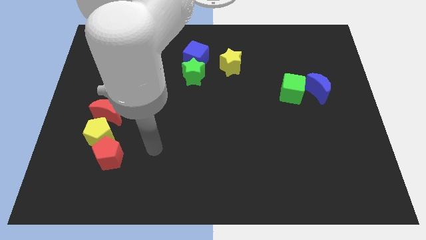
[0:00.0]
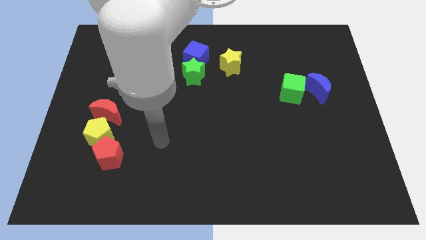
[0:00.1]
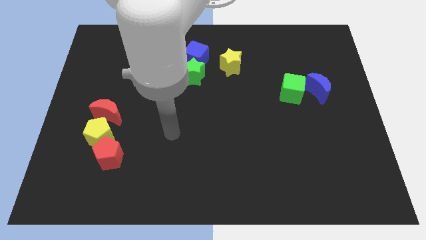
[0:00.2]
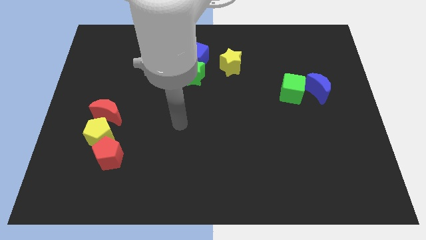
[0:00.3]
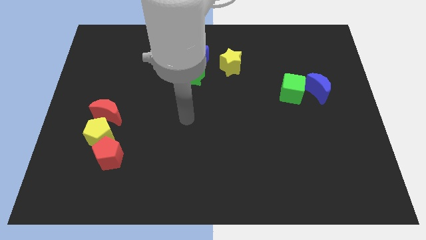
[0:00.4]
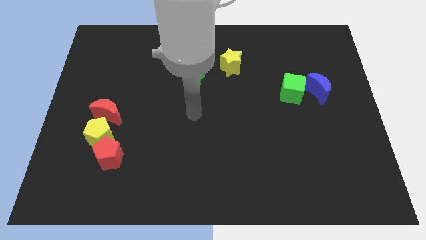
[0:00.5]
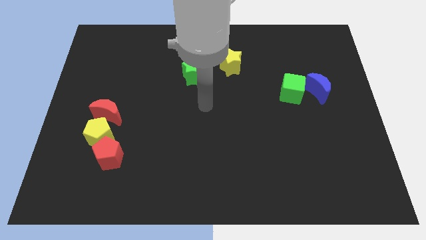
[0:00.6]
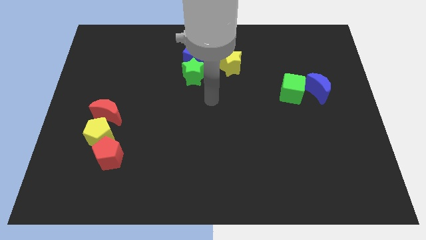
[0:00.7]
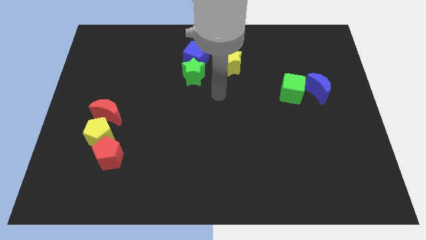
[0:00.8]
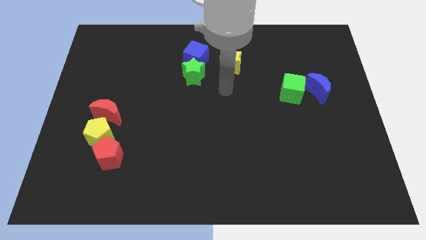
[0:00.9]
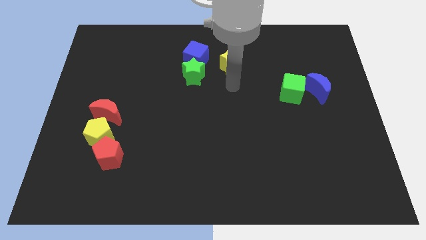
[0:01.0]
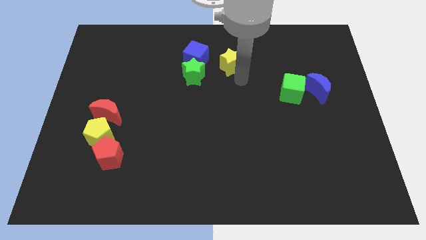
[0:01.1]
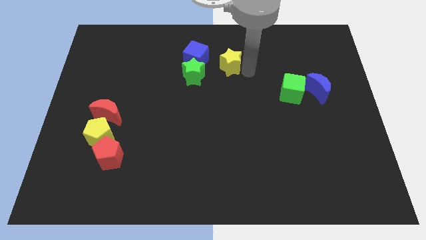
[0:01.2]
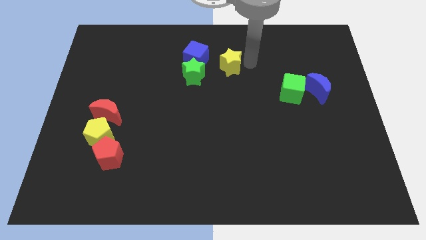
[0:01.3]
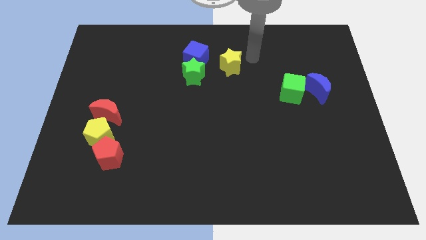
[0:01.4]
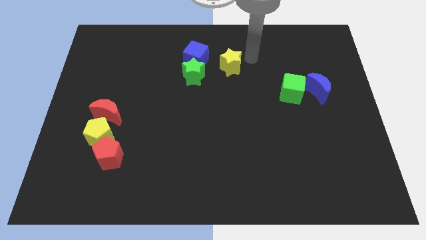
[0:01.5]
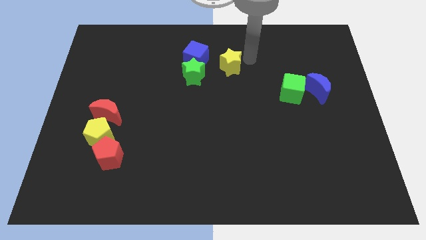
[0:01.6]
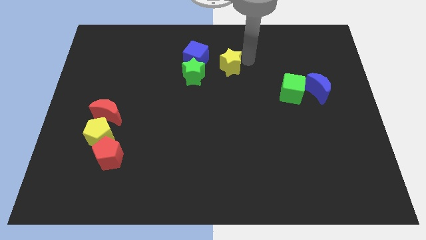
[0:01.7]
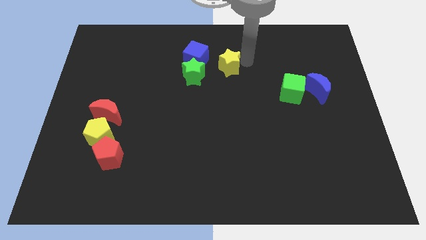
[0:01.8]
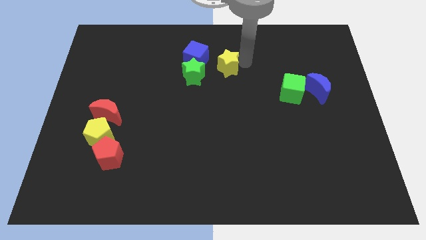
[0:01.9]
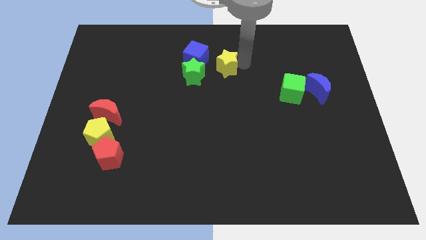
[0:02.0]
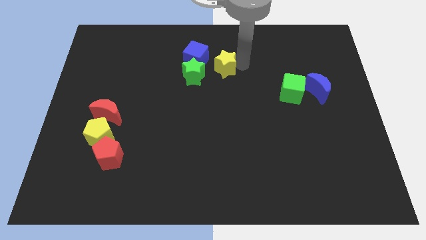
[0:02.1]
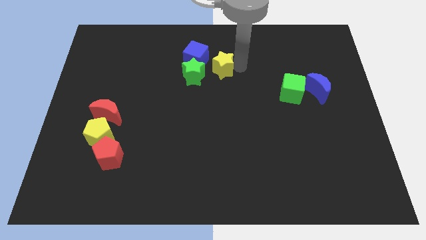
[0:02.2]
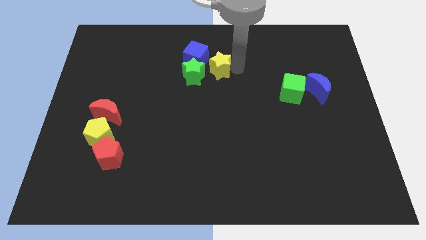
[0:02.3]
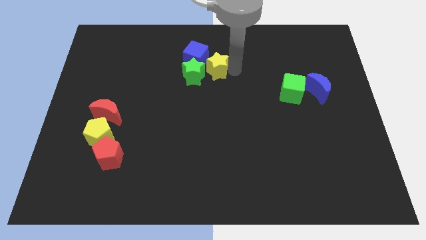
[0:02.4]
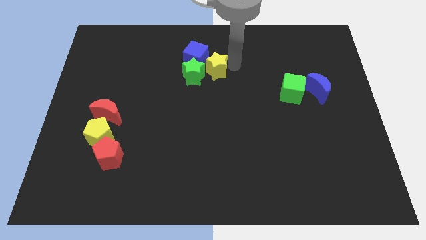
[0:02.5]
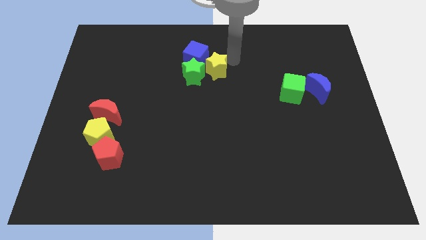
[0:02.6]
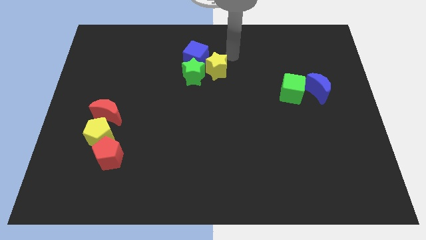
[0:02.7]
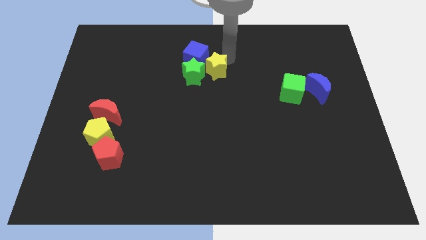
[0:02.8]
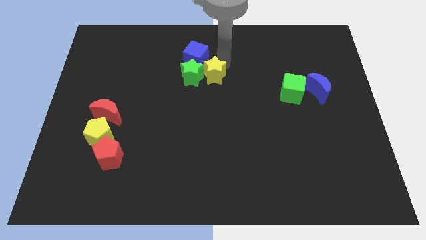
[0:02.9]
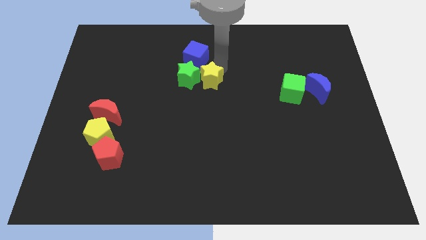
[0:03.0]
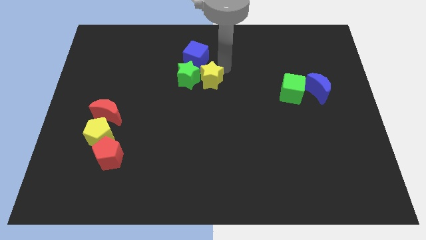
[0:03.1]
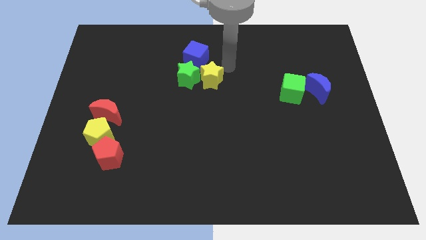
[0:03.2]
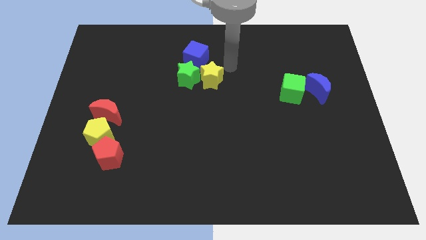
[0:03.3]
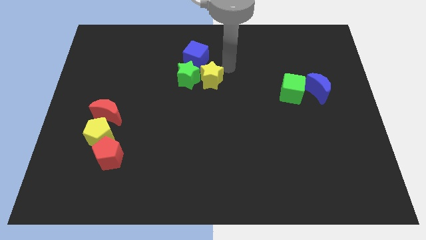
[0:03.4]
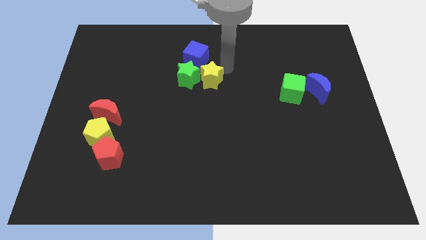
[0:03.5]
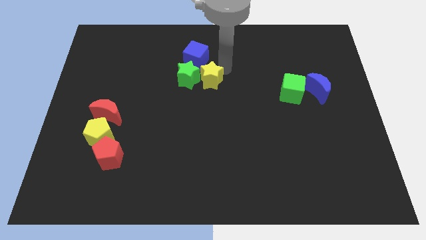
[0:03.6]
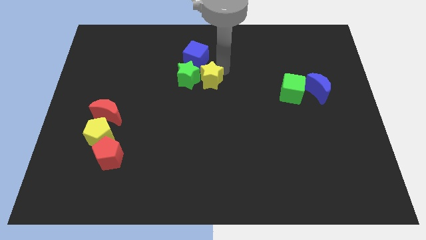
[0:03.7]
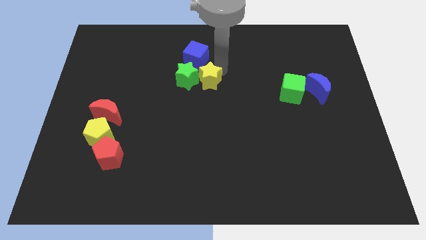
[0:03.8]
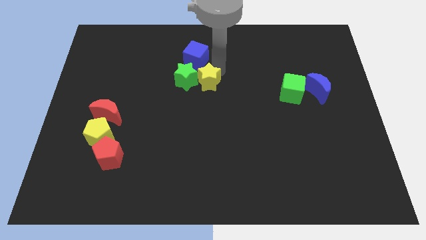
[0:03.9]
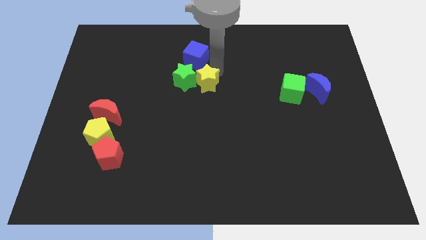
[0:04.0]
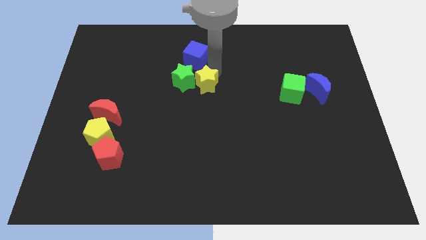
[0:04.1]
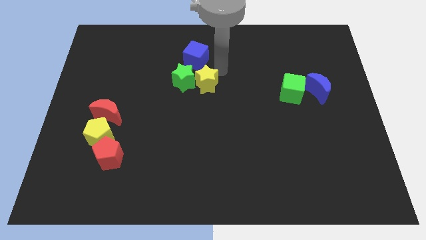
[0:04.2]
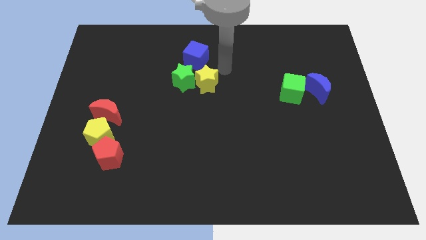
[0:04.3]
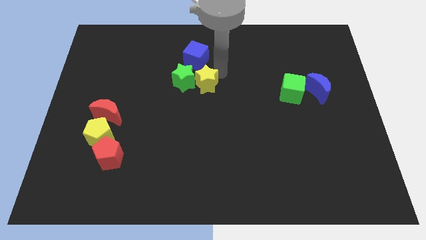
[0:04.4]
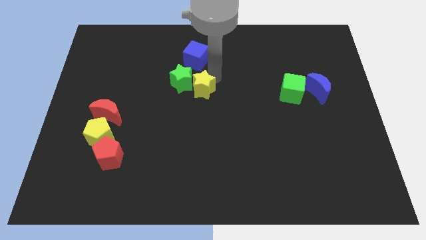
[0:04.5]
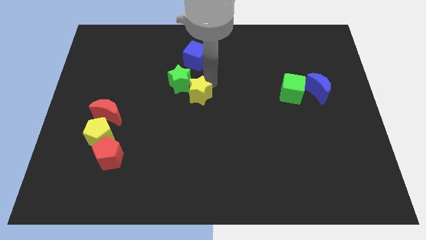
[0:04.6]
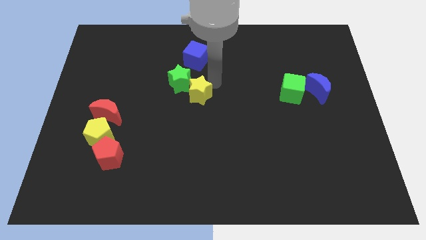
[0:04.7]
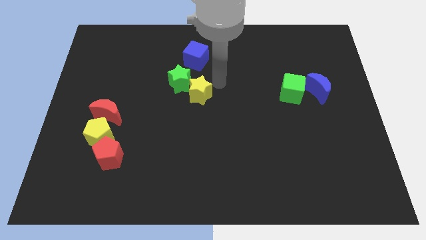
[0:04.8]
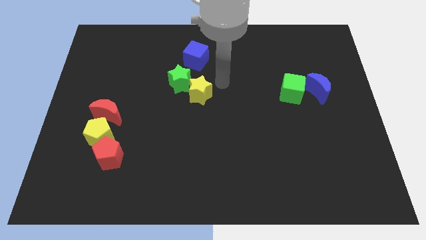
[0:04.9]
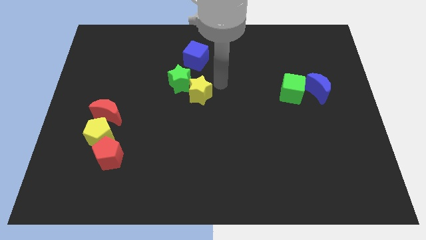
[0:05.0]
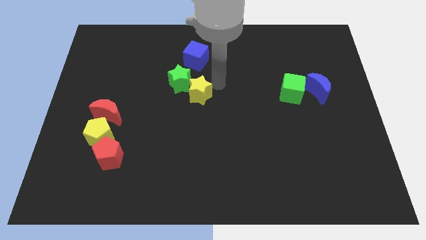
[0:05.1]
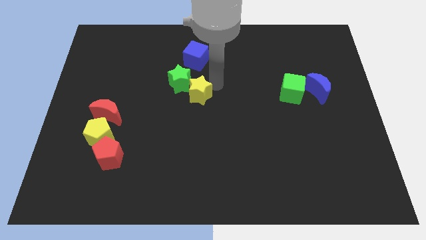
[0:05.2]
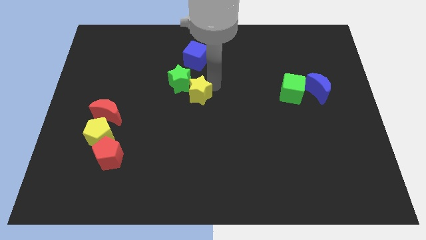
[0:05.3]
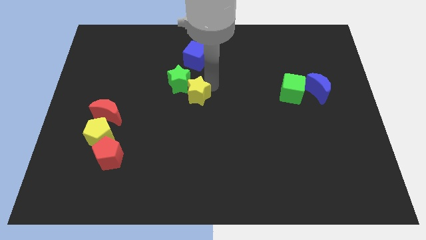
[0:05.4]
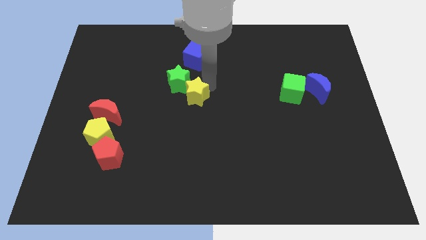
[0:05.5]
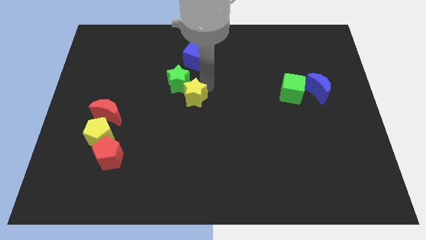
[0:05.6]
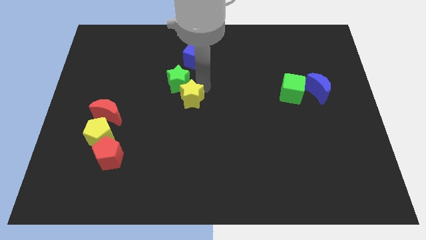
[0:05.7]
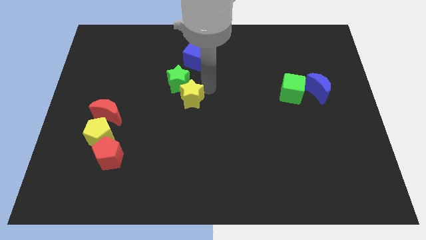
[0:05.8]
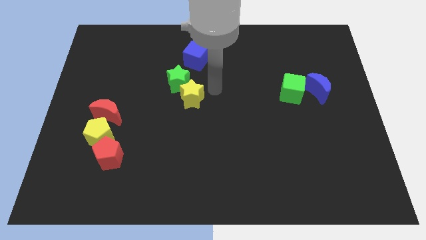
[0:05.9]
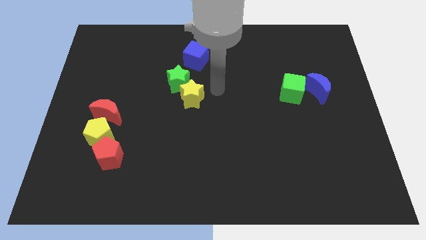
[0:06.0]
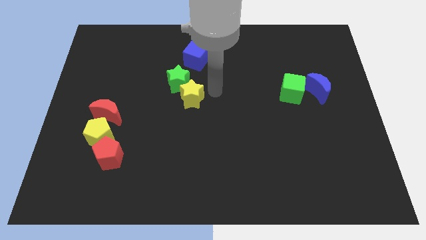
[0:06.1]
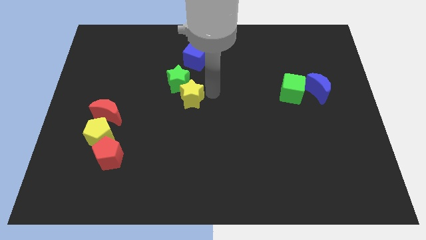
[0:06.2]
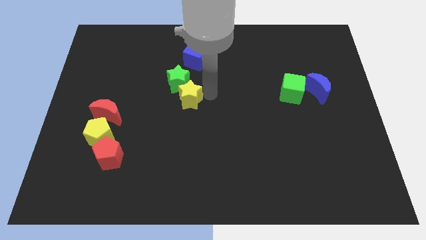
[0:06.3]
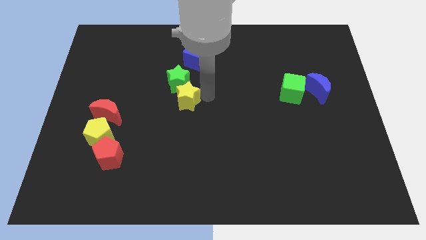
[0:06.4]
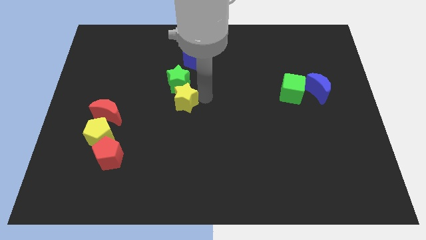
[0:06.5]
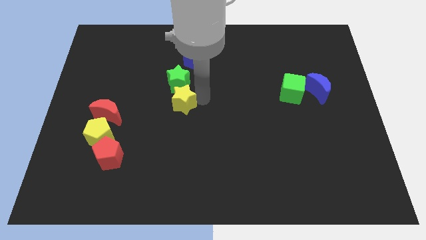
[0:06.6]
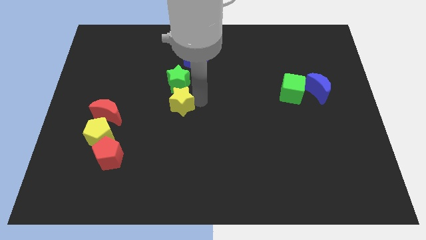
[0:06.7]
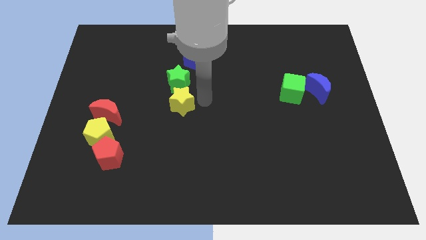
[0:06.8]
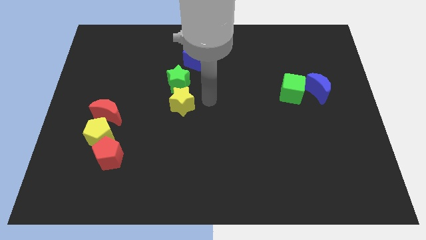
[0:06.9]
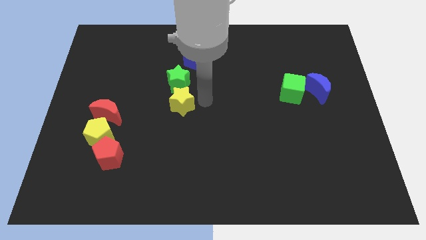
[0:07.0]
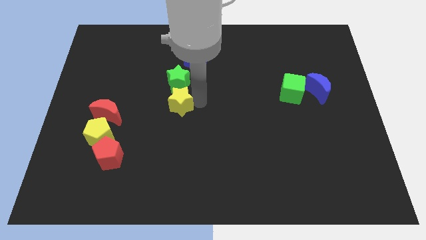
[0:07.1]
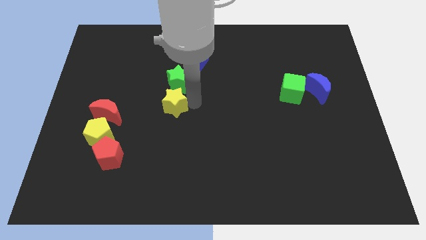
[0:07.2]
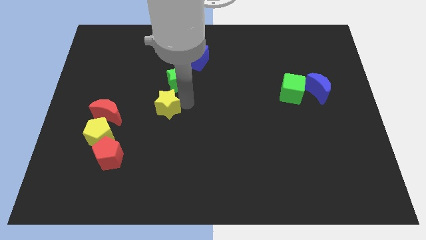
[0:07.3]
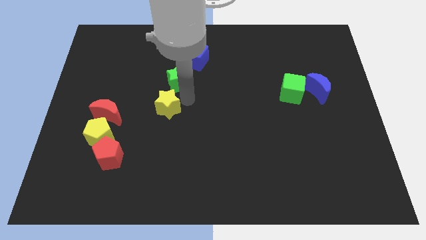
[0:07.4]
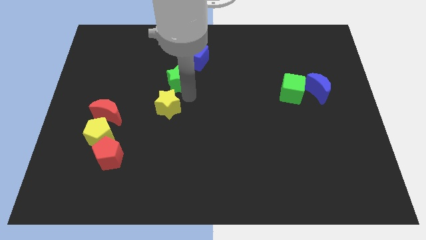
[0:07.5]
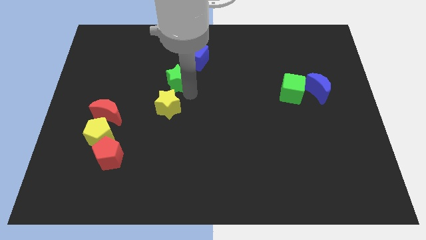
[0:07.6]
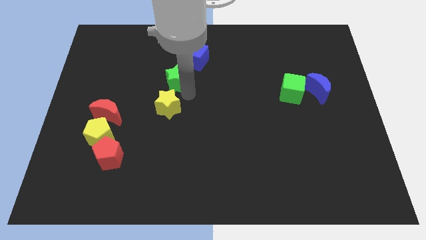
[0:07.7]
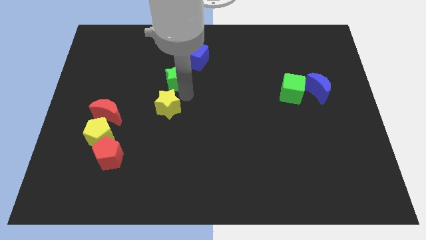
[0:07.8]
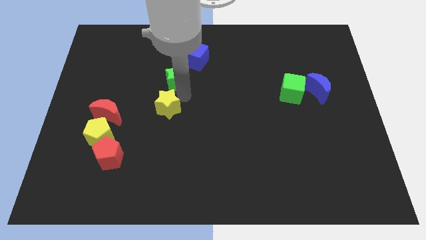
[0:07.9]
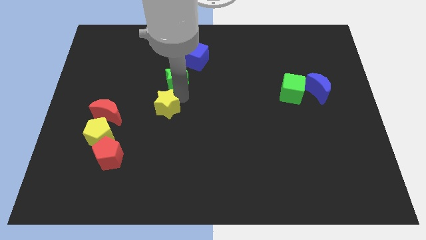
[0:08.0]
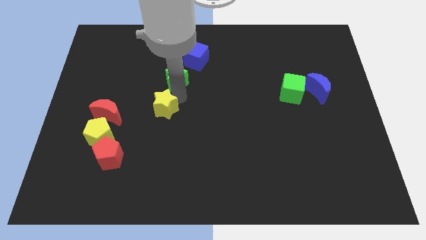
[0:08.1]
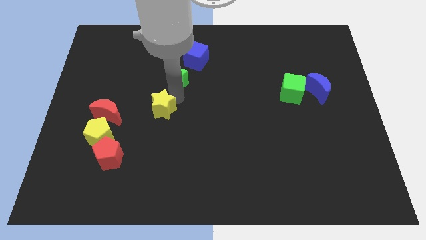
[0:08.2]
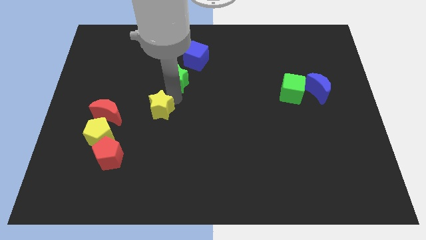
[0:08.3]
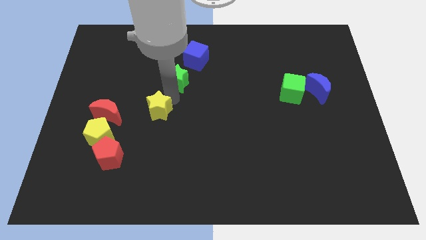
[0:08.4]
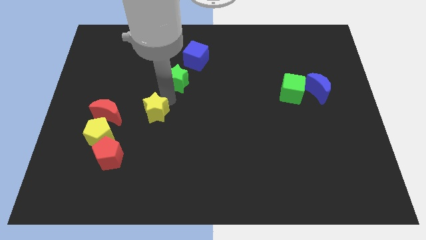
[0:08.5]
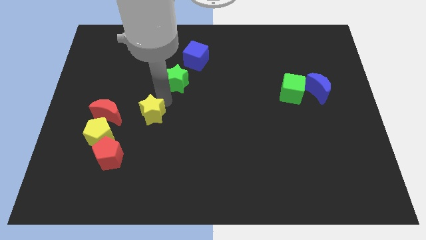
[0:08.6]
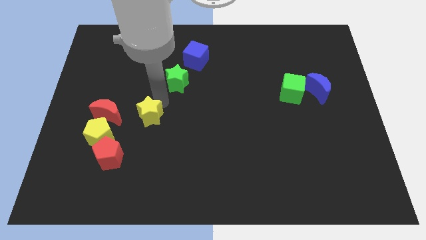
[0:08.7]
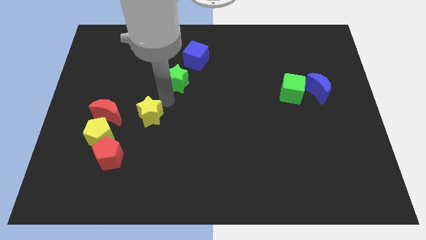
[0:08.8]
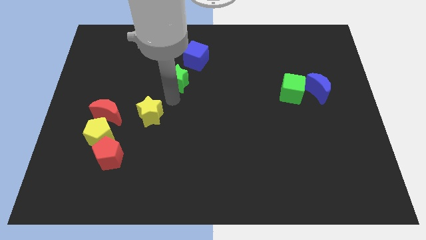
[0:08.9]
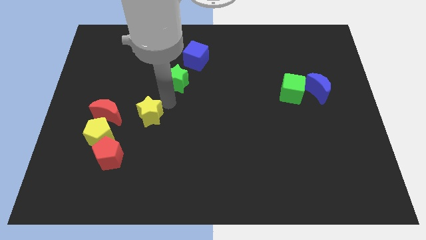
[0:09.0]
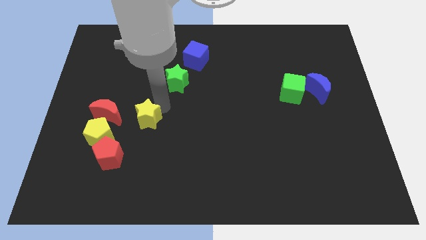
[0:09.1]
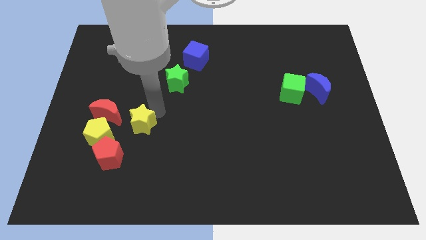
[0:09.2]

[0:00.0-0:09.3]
put the yellow star to the bottom right of the red moon
